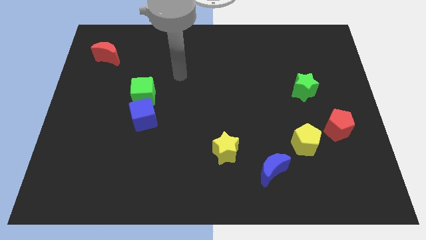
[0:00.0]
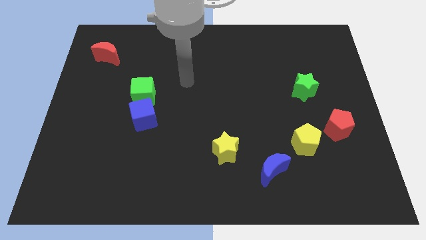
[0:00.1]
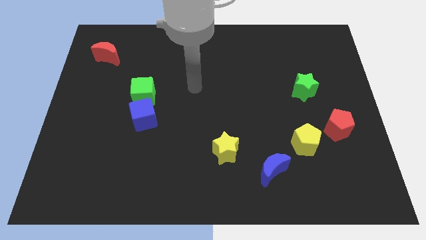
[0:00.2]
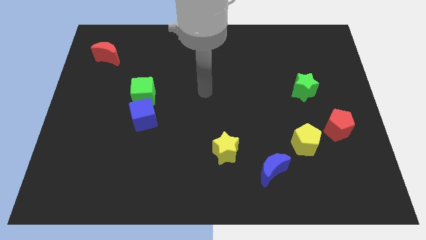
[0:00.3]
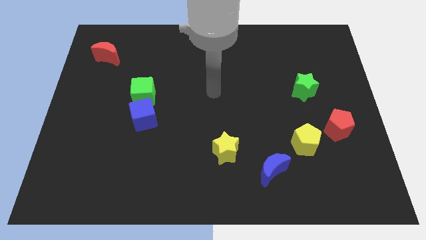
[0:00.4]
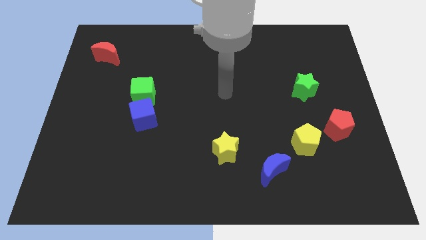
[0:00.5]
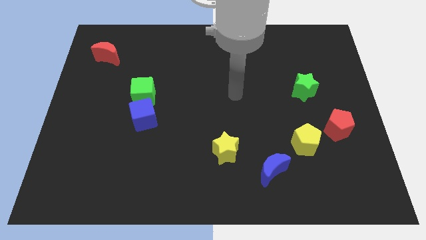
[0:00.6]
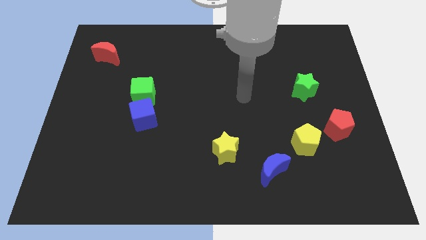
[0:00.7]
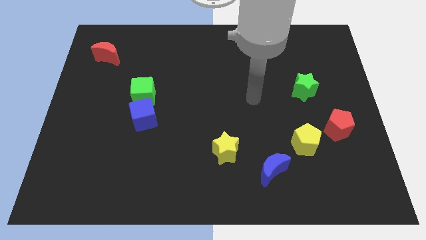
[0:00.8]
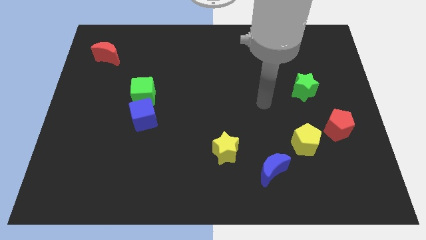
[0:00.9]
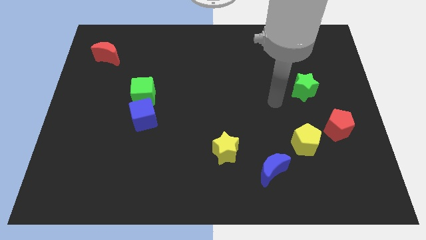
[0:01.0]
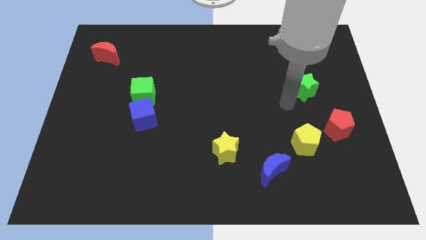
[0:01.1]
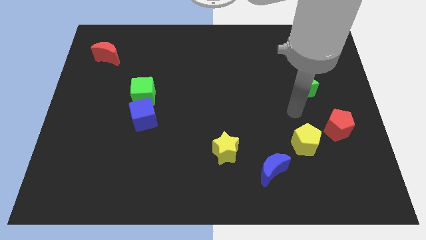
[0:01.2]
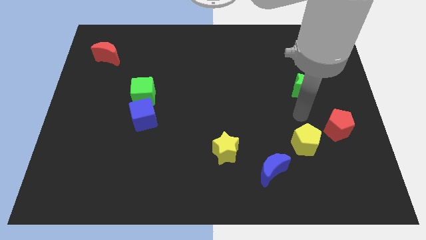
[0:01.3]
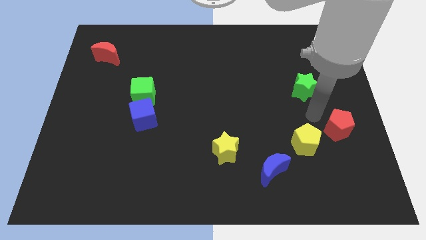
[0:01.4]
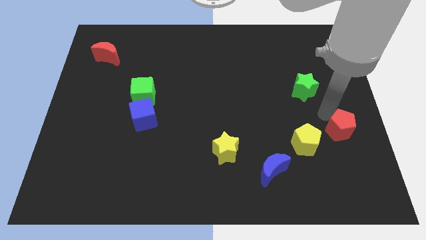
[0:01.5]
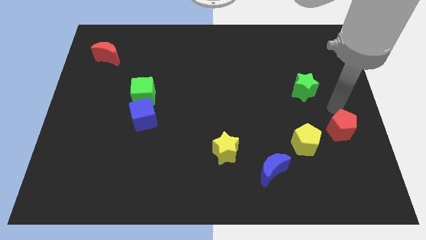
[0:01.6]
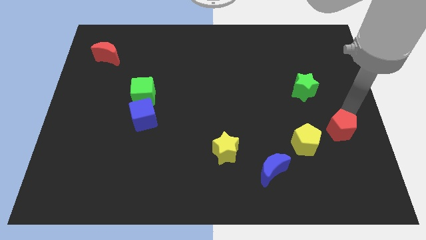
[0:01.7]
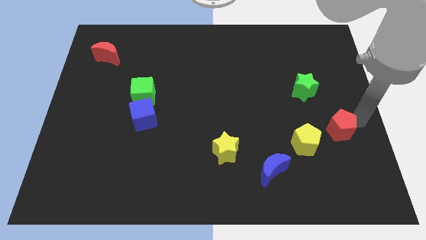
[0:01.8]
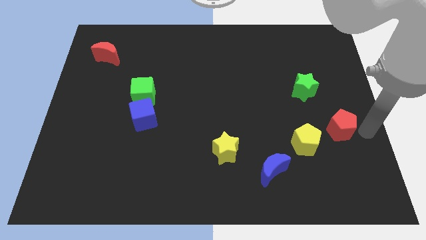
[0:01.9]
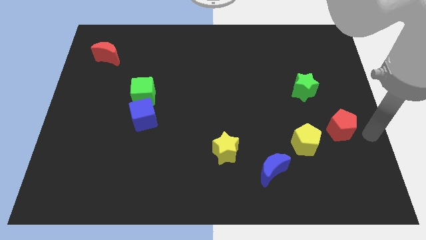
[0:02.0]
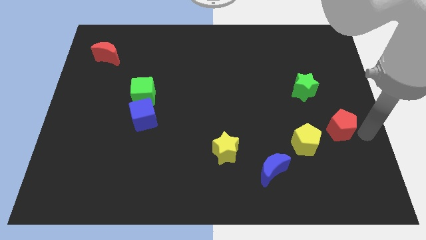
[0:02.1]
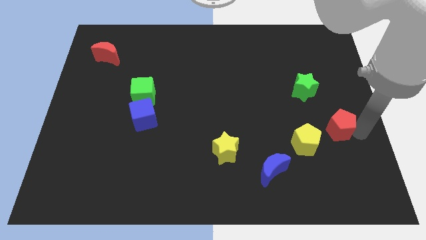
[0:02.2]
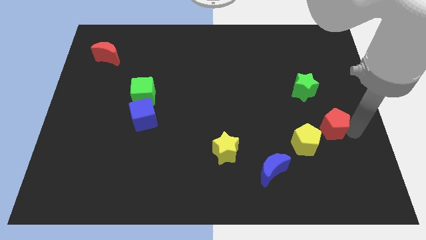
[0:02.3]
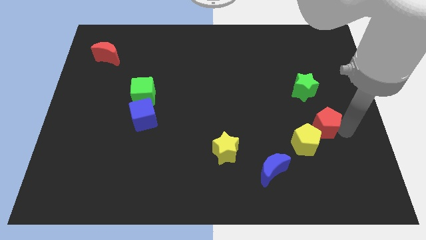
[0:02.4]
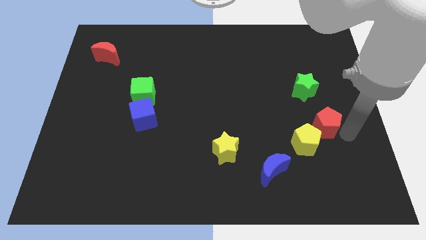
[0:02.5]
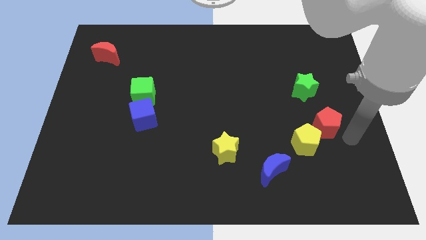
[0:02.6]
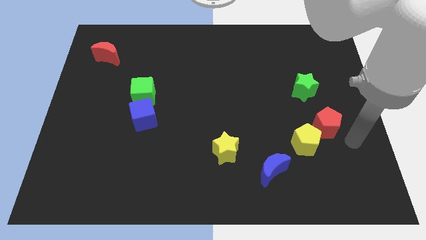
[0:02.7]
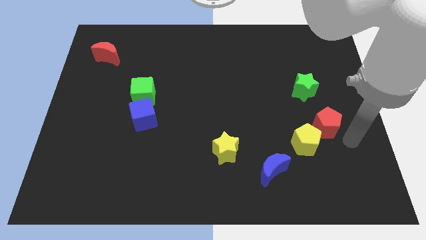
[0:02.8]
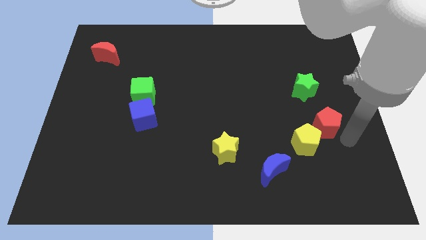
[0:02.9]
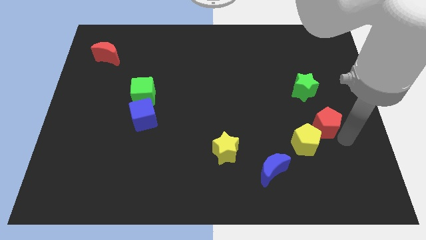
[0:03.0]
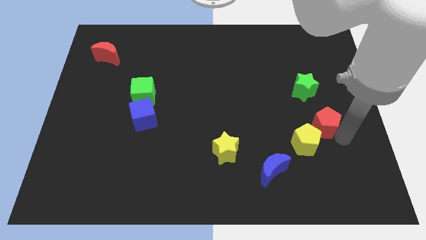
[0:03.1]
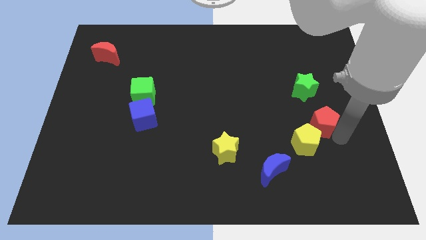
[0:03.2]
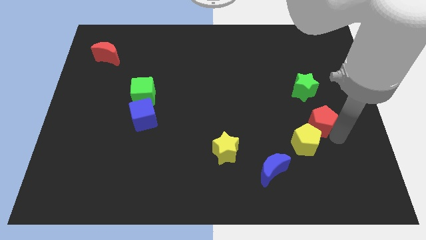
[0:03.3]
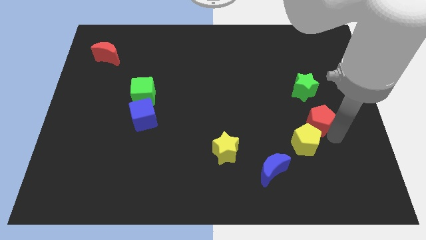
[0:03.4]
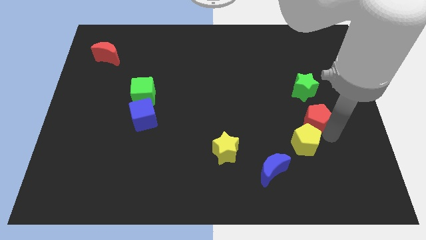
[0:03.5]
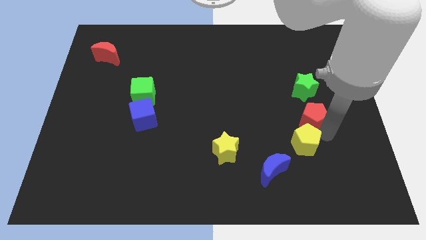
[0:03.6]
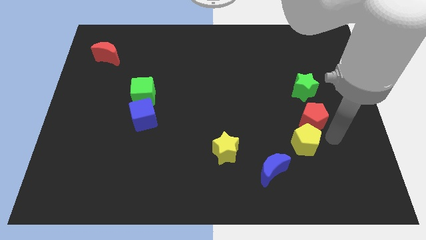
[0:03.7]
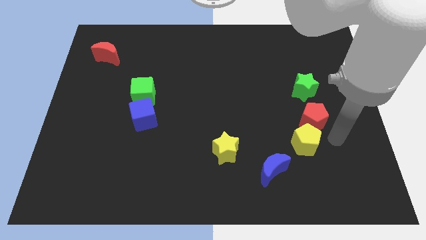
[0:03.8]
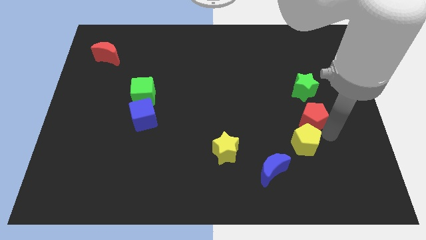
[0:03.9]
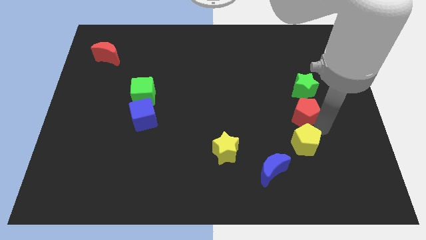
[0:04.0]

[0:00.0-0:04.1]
slightly slide the red pentagon up and then left

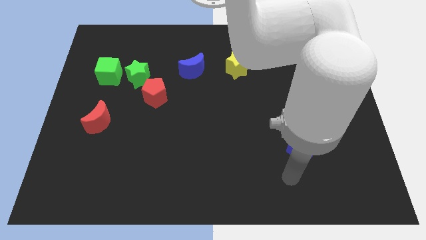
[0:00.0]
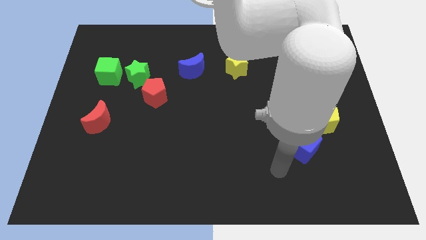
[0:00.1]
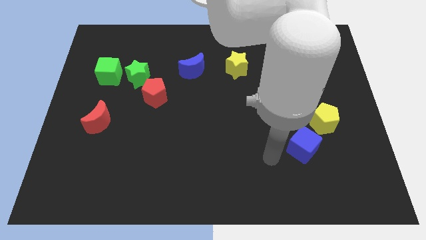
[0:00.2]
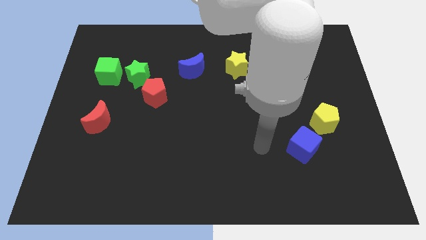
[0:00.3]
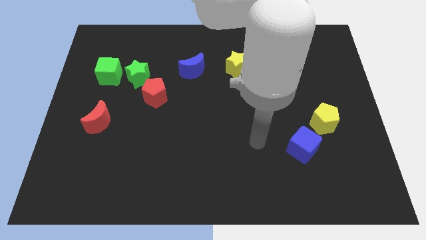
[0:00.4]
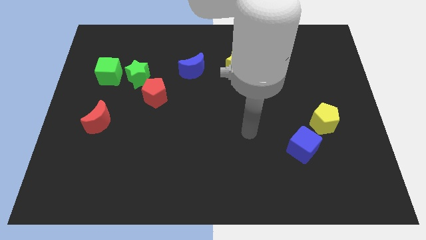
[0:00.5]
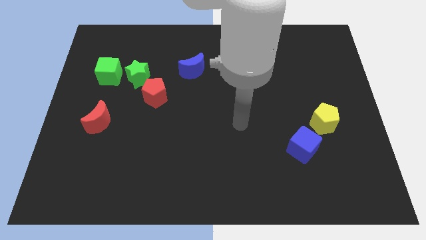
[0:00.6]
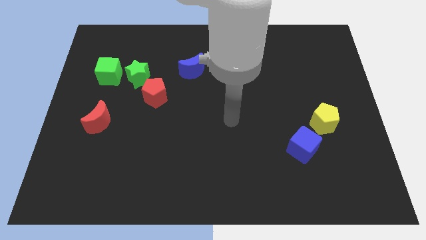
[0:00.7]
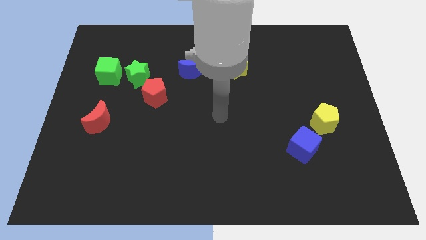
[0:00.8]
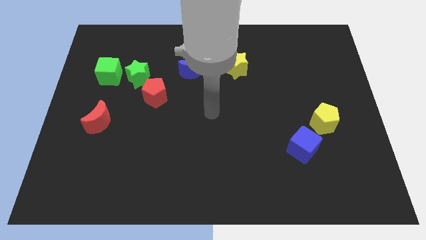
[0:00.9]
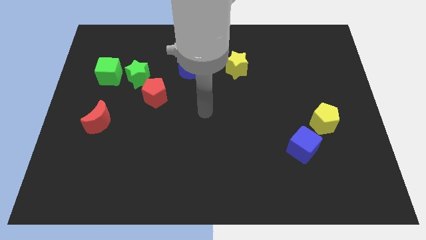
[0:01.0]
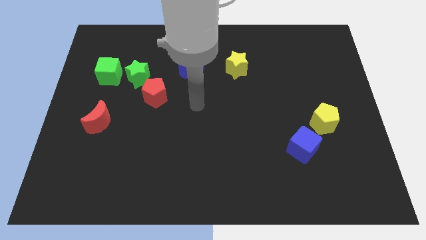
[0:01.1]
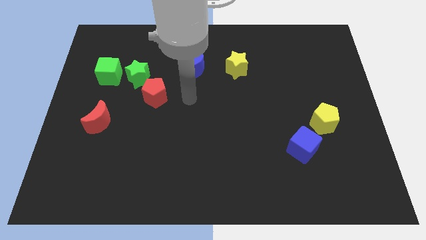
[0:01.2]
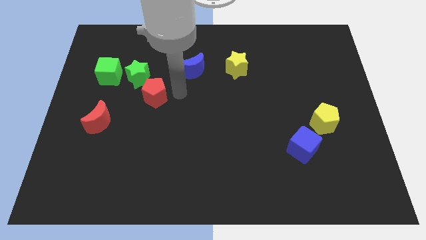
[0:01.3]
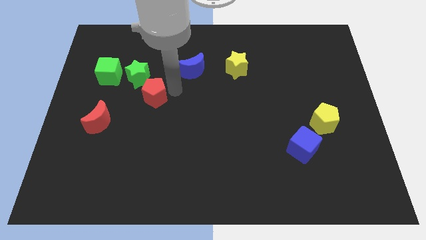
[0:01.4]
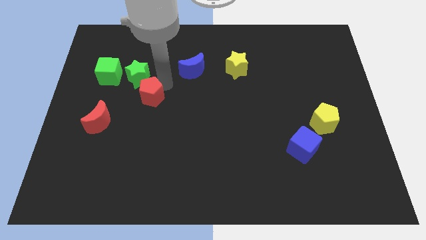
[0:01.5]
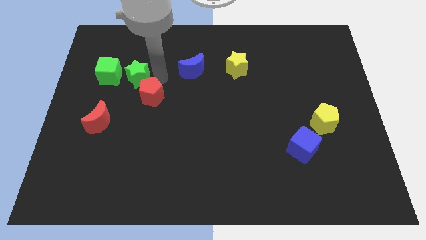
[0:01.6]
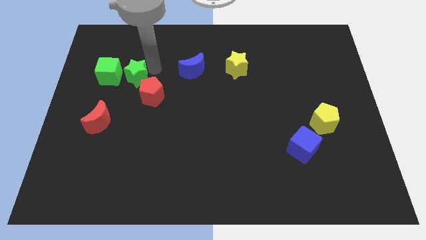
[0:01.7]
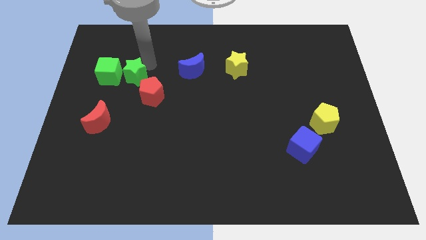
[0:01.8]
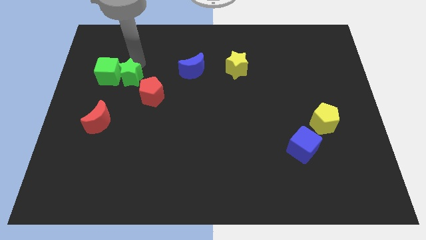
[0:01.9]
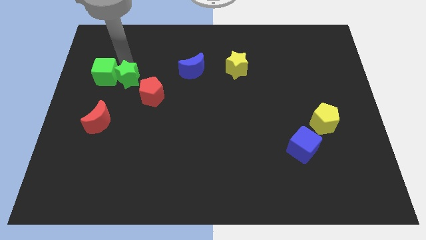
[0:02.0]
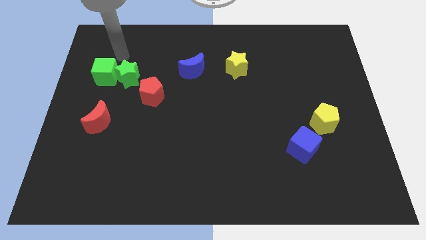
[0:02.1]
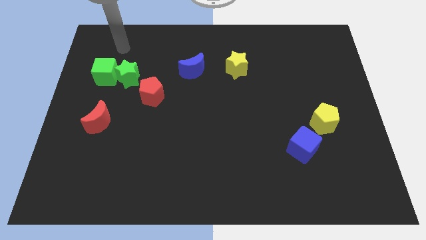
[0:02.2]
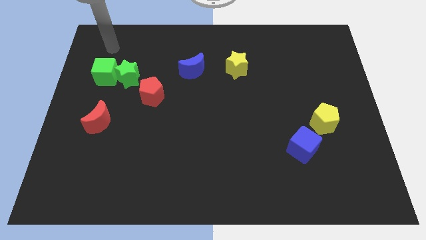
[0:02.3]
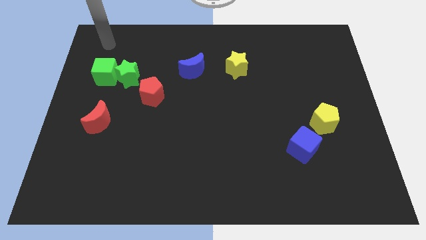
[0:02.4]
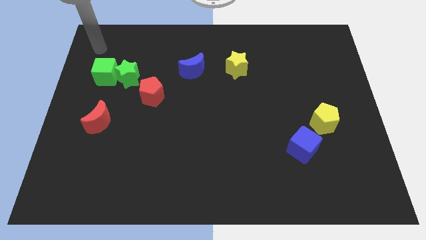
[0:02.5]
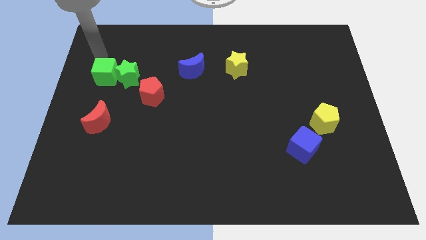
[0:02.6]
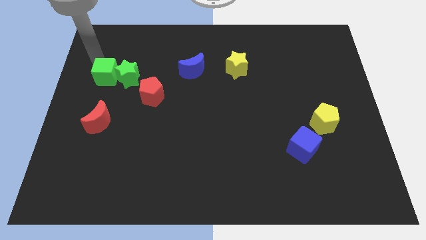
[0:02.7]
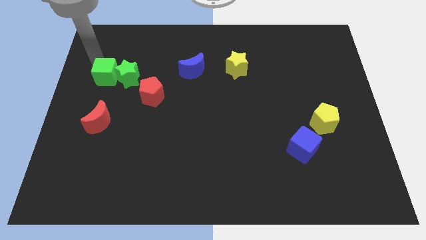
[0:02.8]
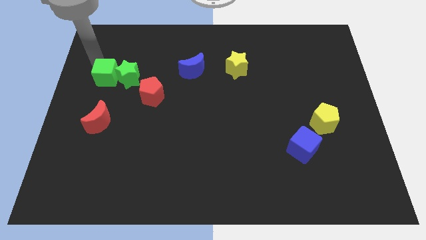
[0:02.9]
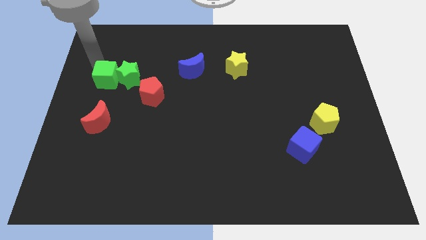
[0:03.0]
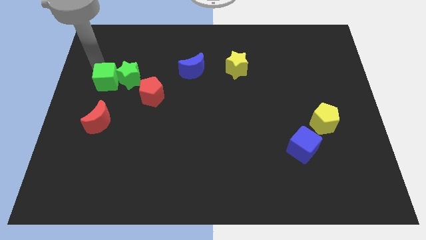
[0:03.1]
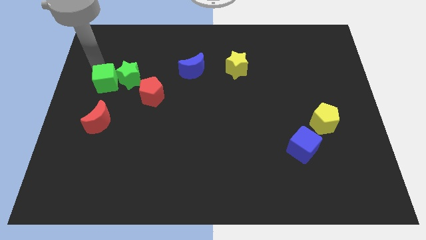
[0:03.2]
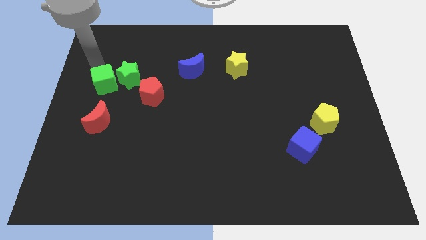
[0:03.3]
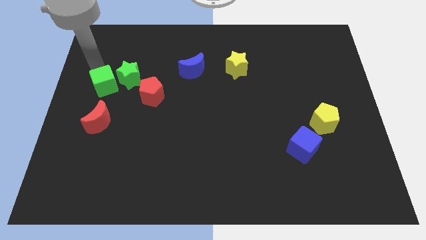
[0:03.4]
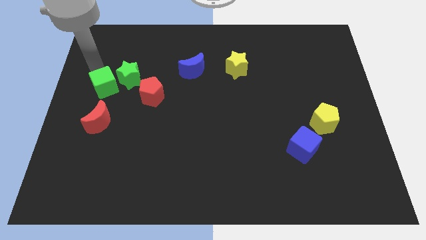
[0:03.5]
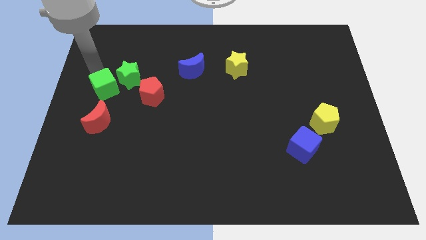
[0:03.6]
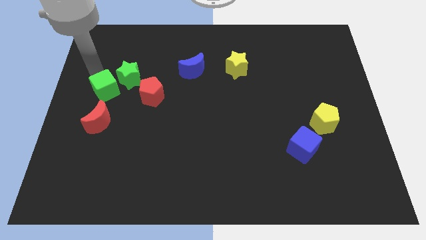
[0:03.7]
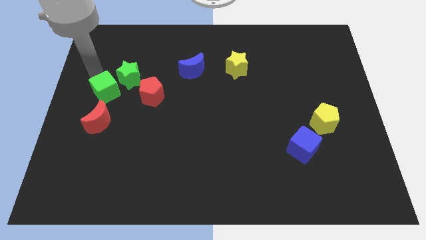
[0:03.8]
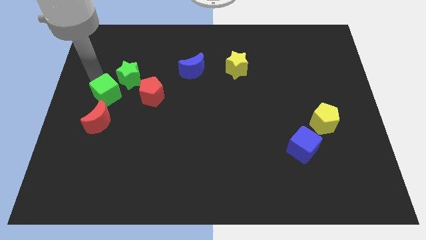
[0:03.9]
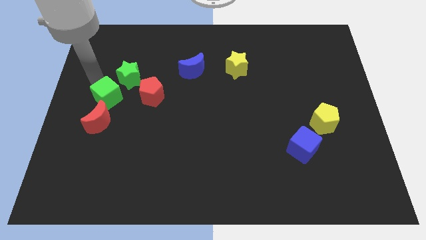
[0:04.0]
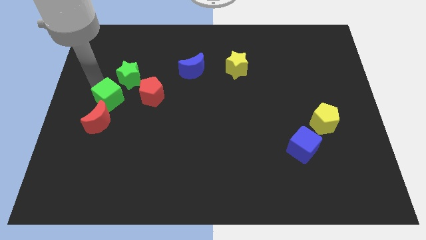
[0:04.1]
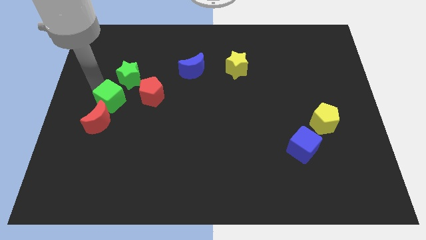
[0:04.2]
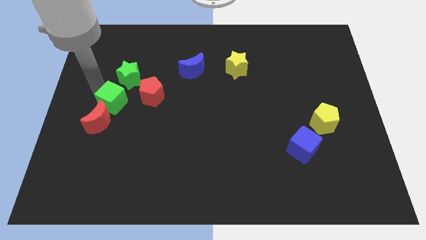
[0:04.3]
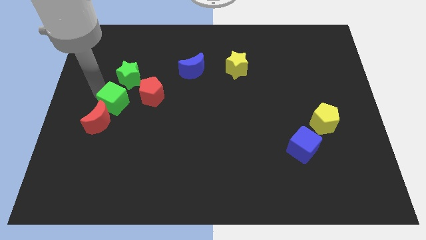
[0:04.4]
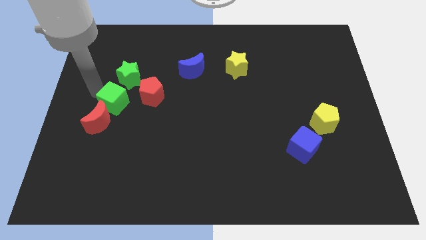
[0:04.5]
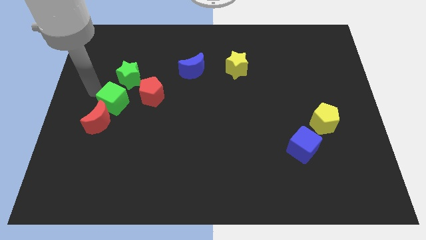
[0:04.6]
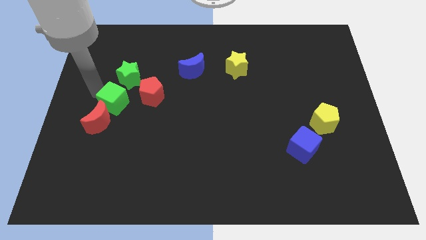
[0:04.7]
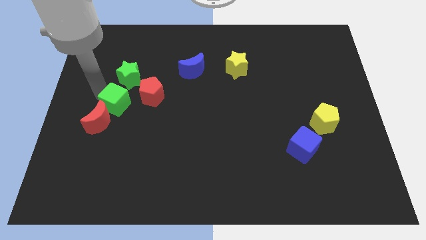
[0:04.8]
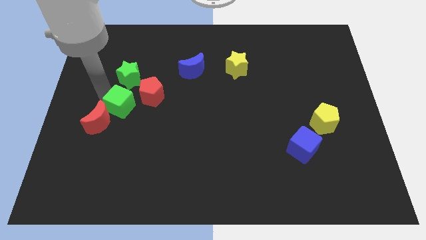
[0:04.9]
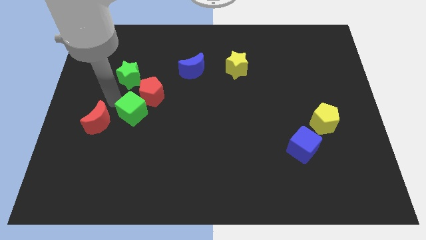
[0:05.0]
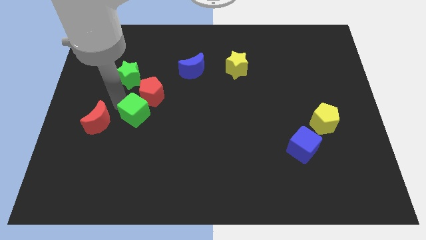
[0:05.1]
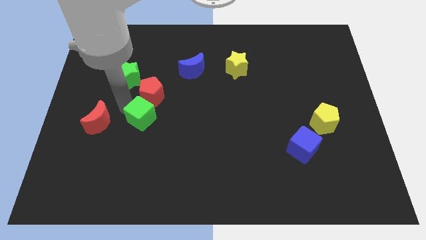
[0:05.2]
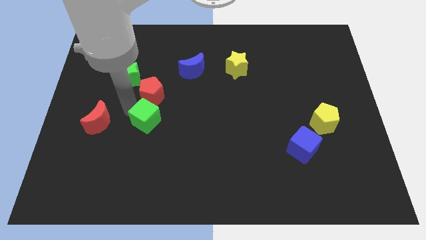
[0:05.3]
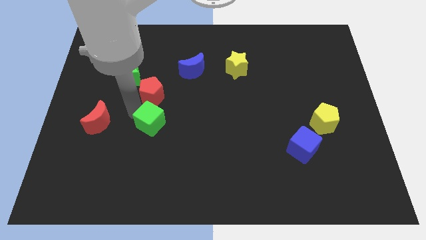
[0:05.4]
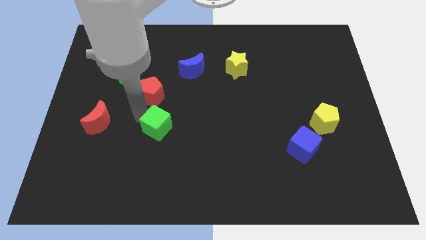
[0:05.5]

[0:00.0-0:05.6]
slide the green cube down and then to the right
